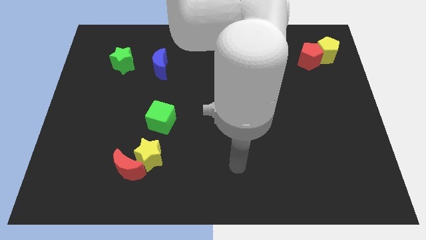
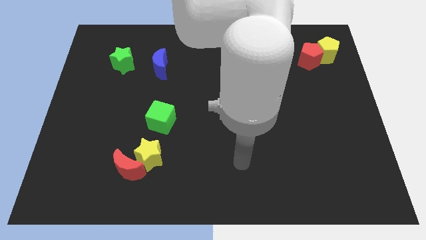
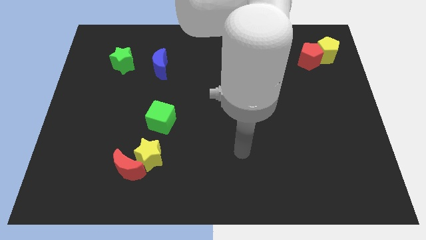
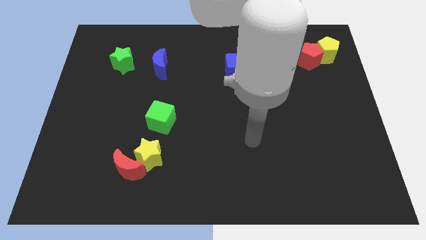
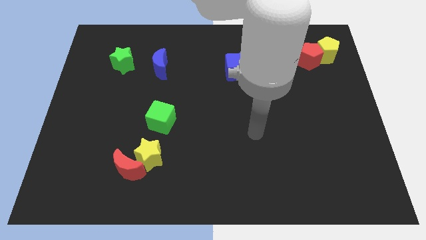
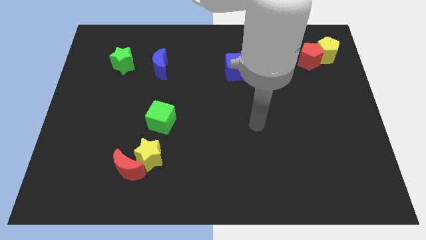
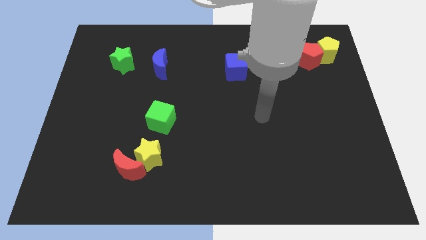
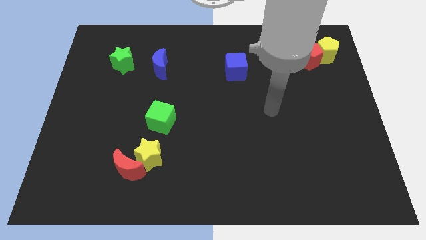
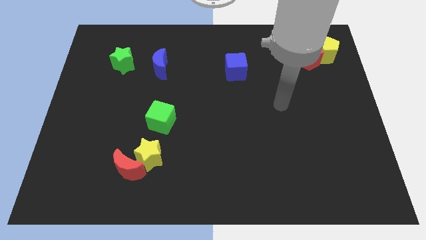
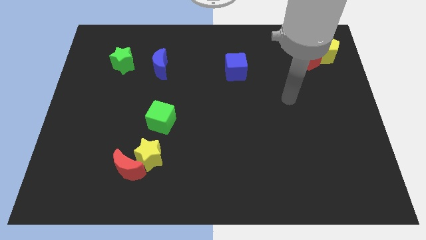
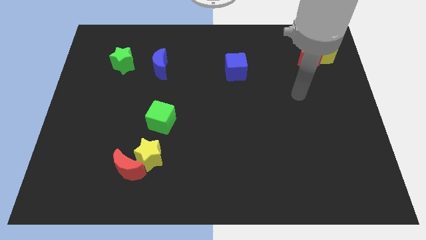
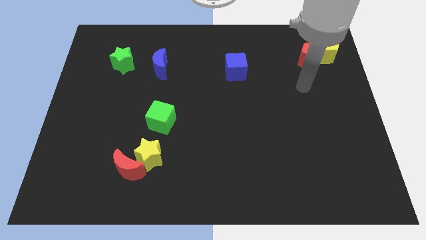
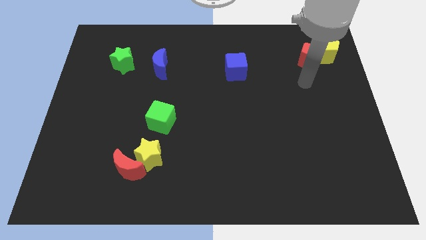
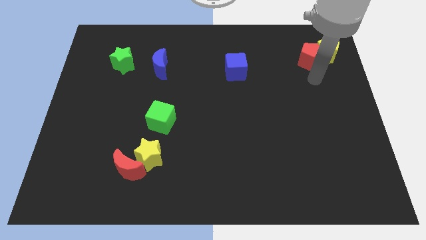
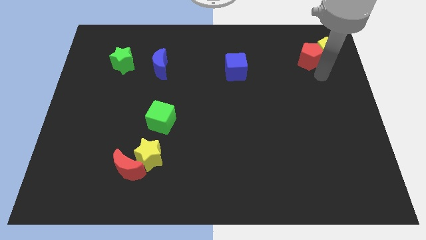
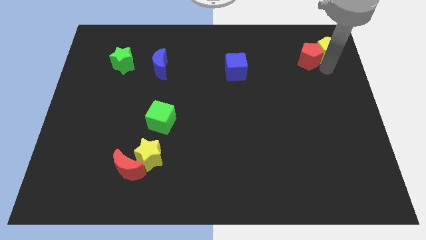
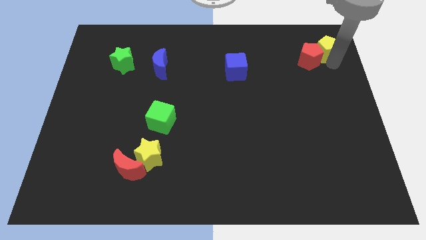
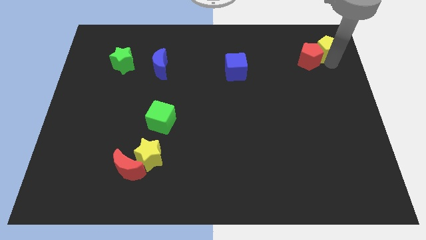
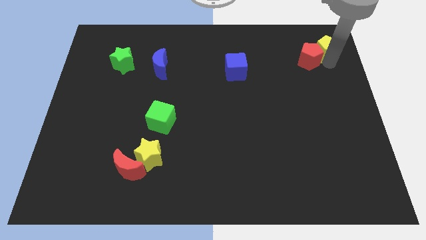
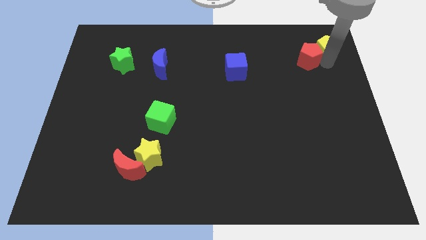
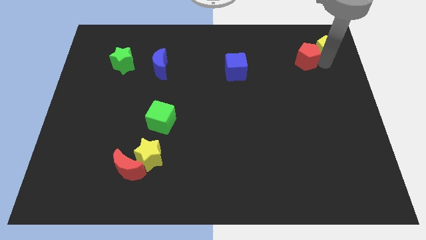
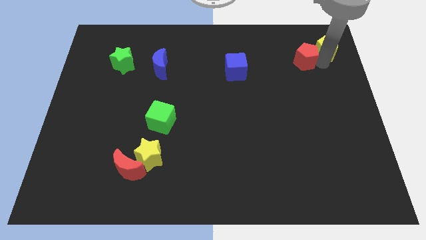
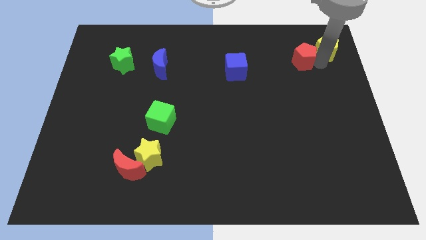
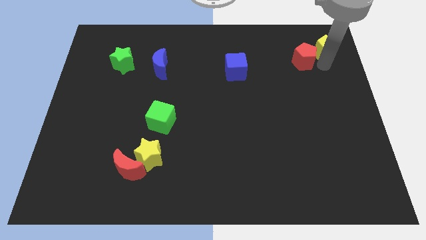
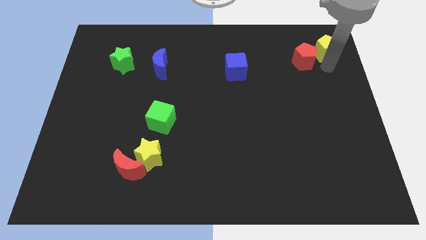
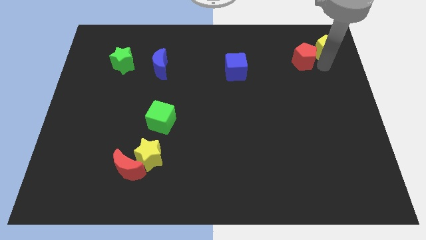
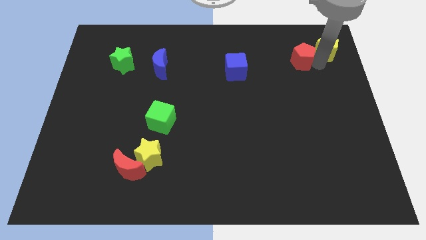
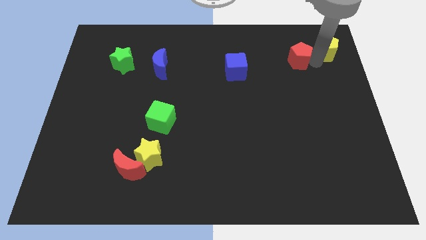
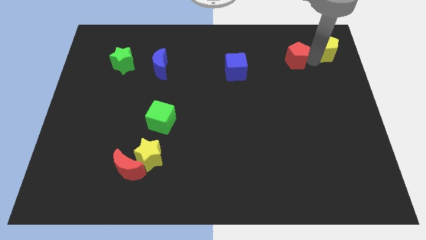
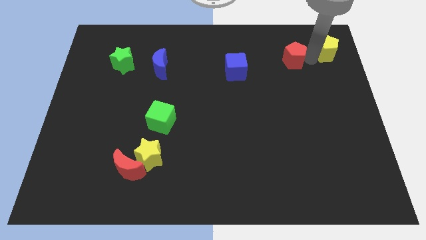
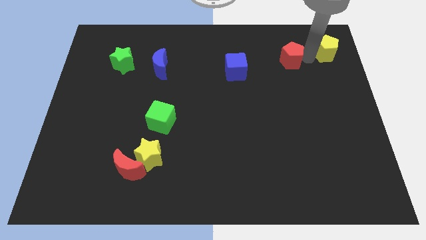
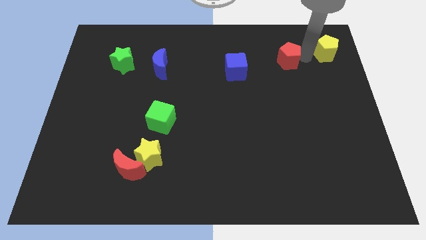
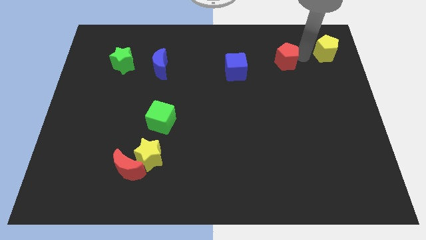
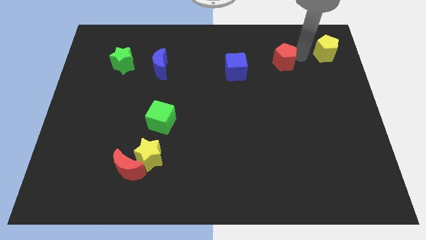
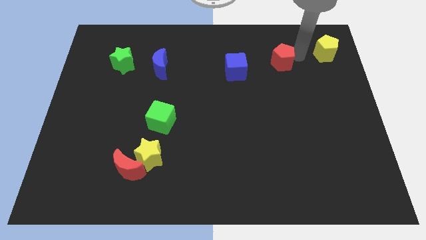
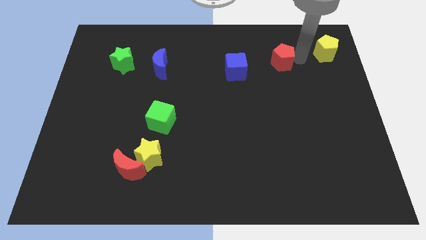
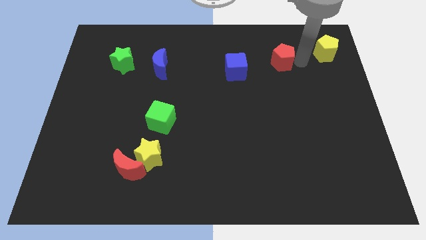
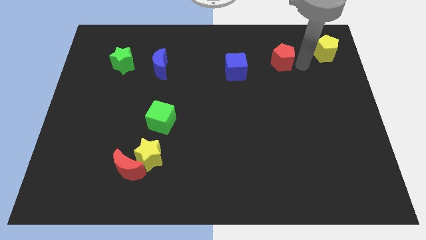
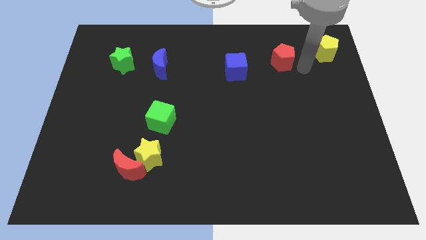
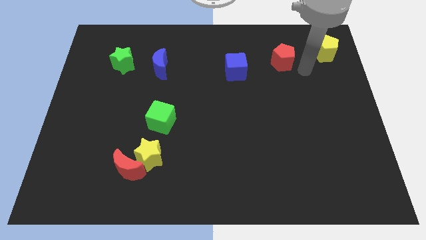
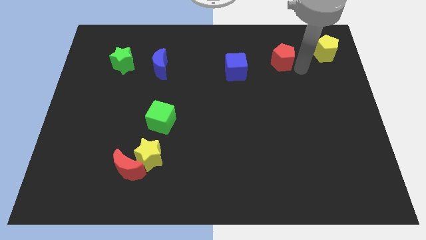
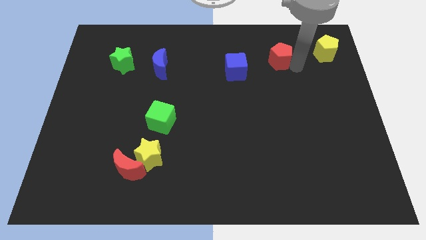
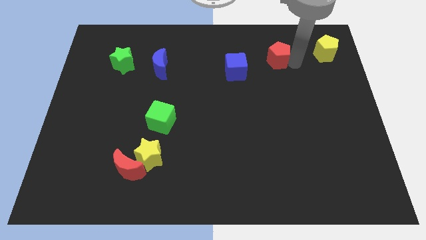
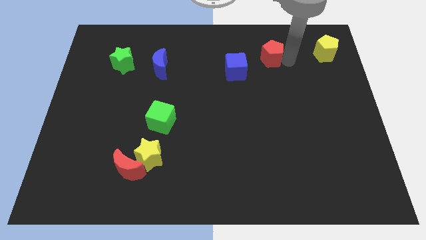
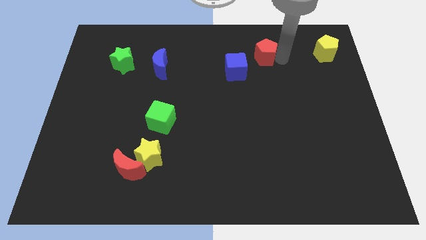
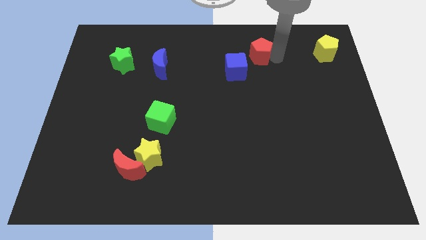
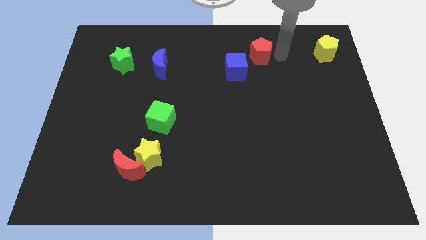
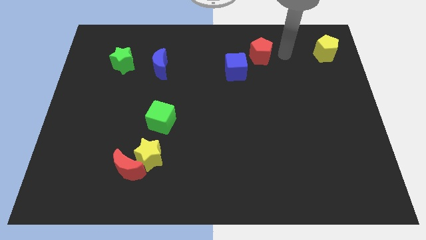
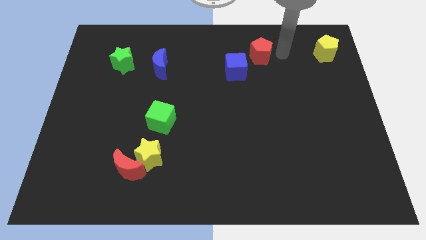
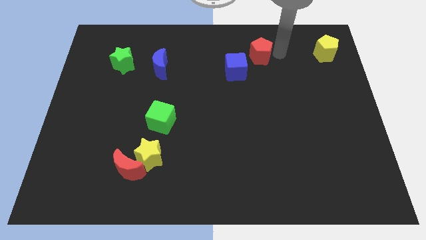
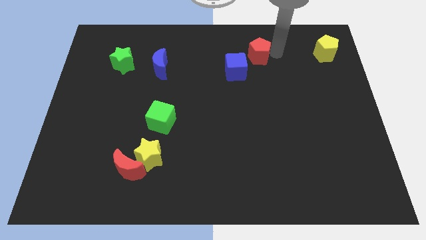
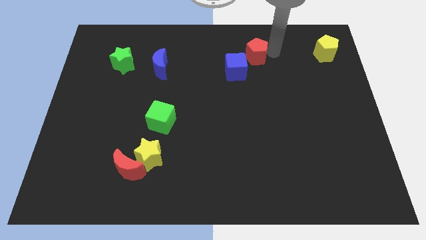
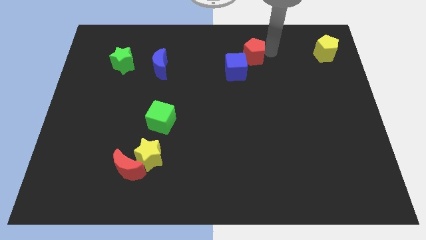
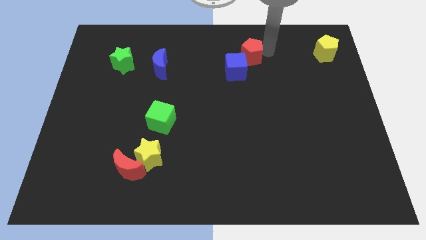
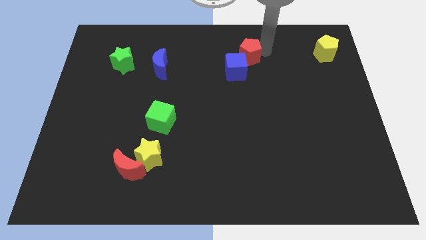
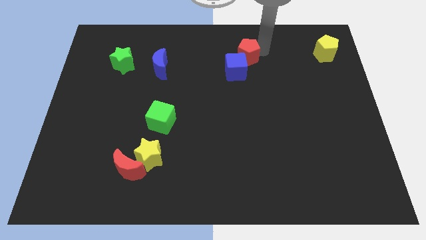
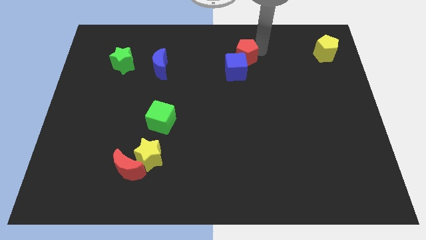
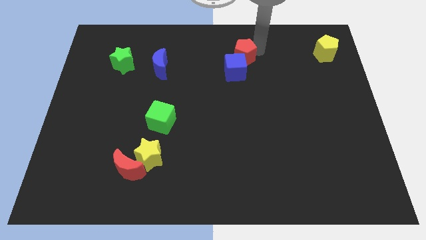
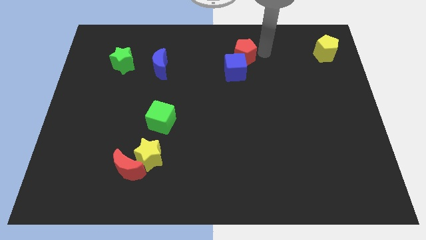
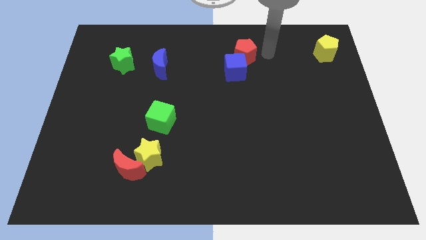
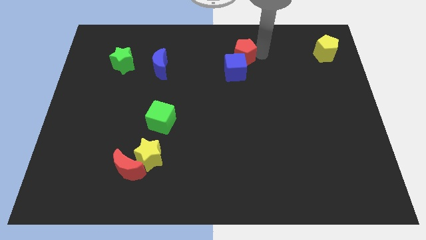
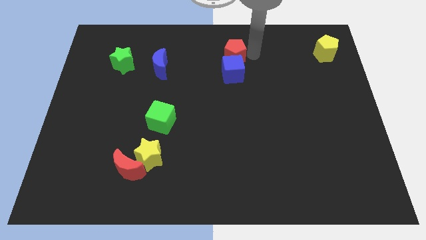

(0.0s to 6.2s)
slide the red pentagon to the top left of the blue cube

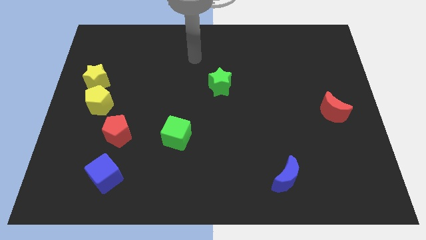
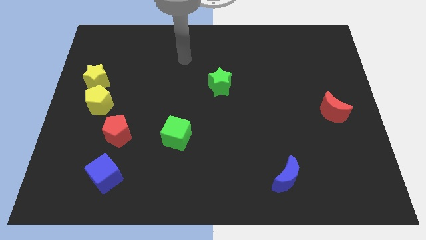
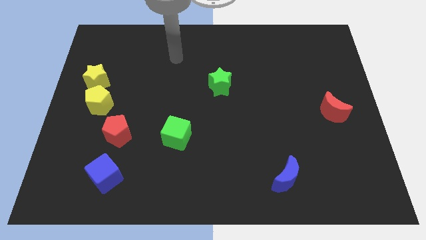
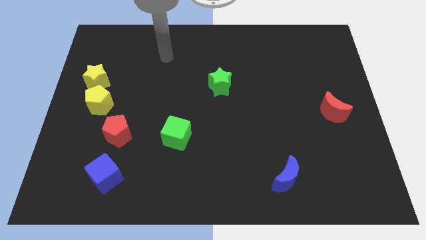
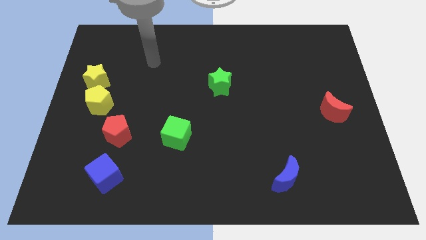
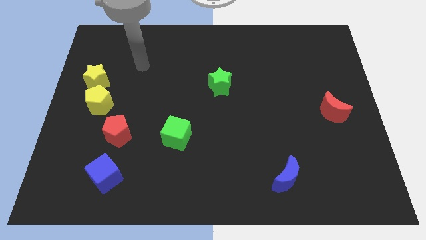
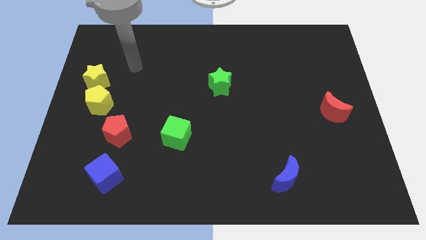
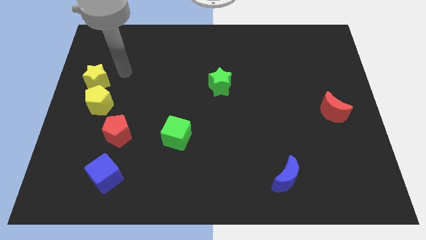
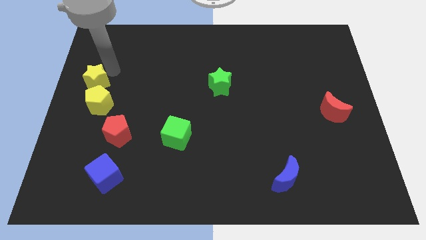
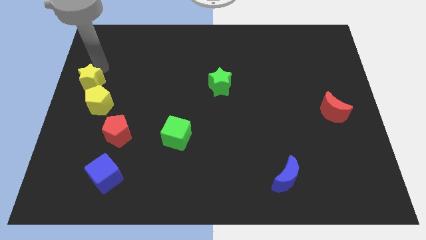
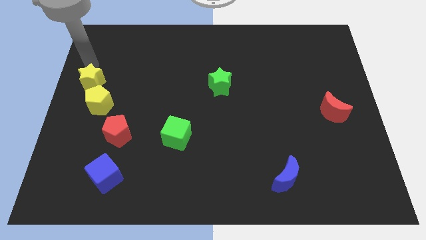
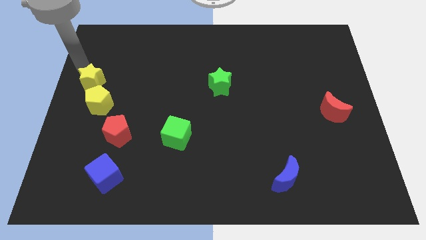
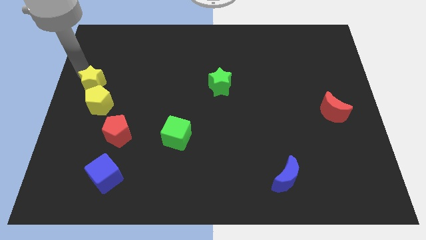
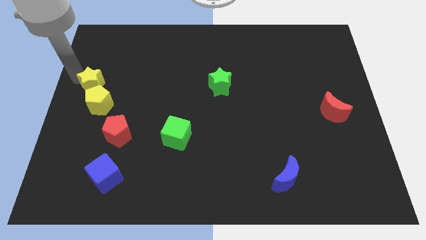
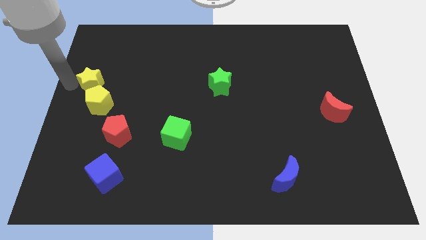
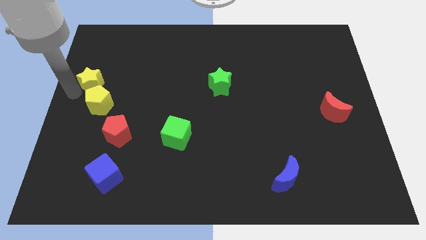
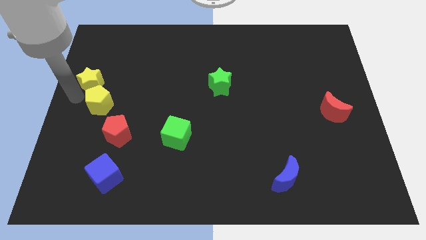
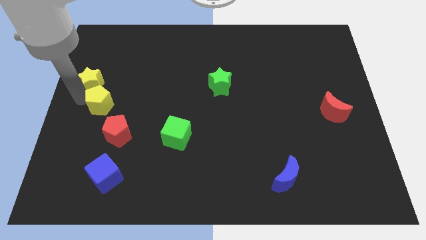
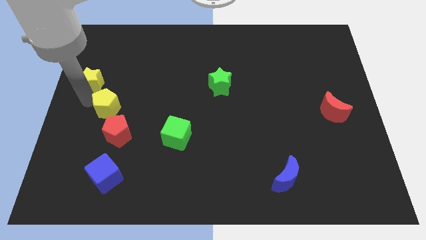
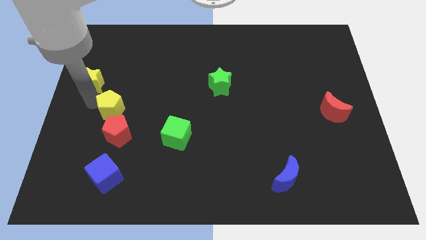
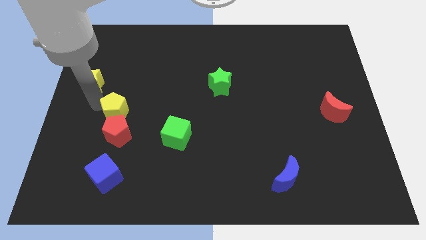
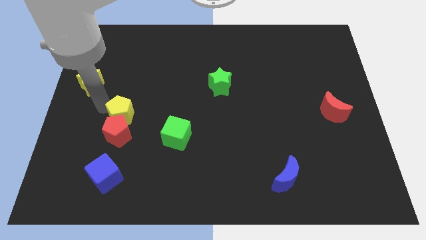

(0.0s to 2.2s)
move the yellow pentagon to the top right side of the red pentagon
